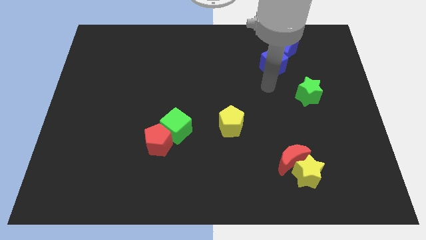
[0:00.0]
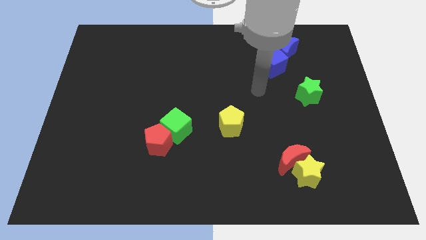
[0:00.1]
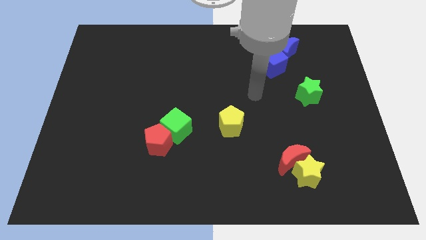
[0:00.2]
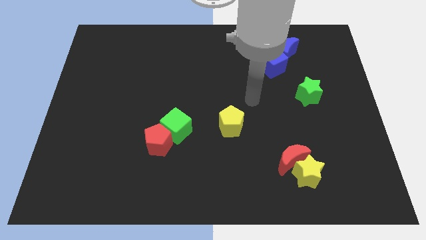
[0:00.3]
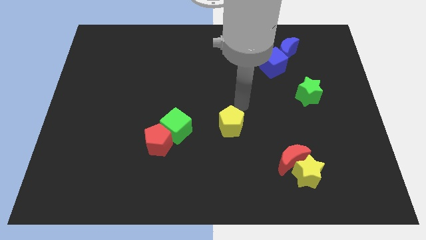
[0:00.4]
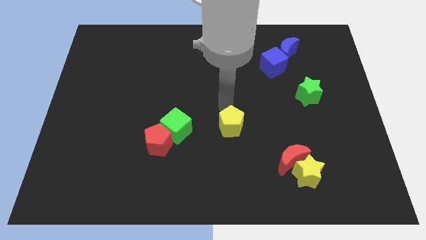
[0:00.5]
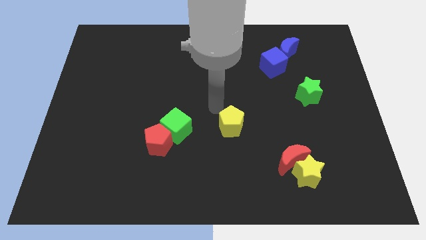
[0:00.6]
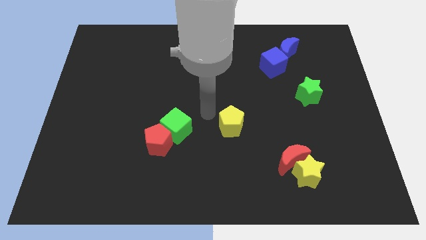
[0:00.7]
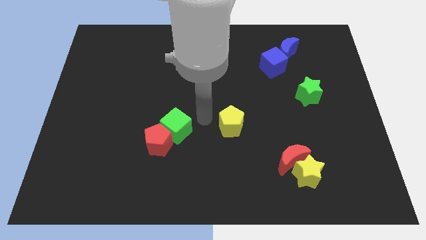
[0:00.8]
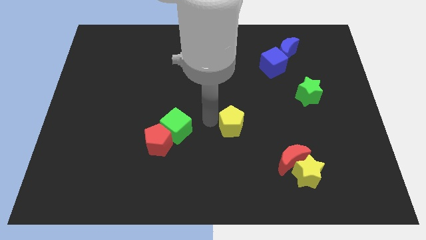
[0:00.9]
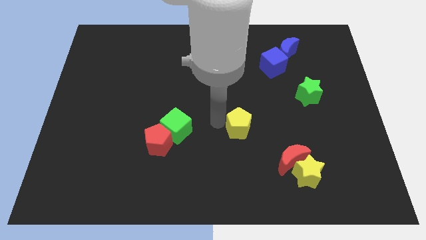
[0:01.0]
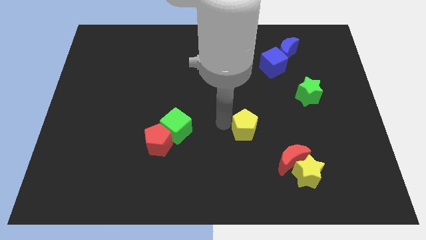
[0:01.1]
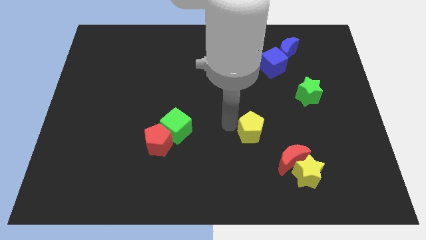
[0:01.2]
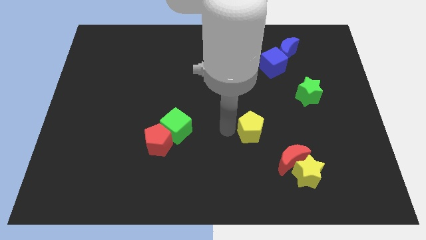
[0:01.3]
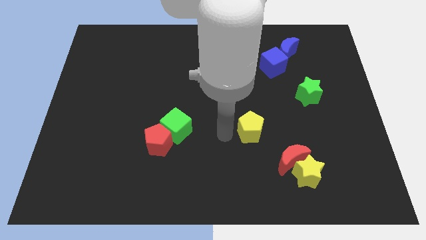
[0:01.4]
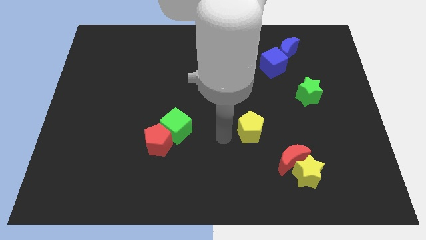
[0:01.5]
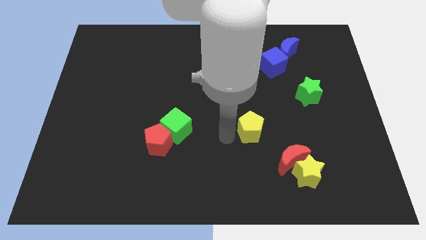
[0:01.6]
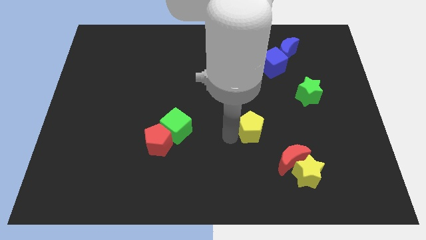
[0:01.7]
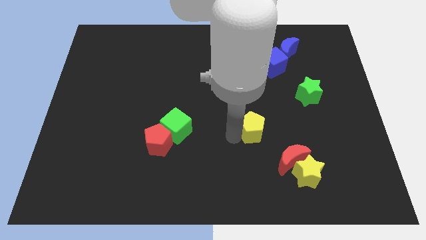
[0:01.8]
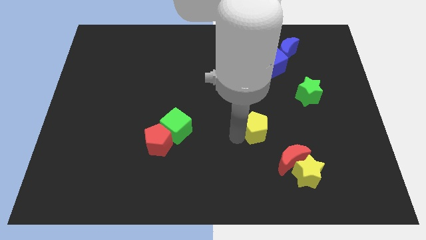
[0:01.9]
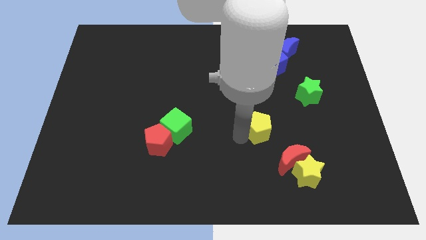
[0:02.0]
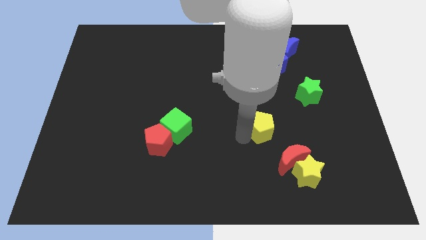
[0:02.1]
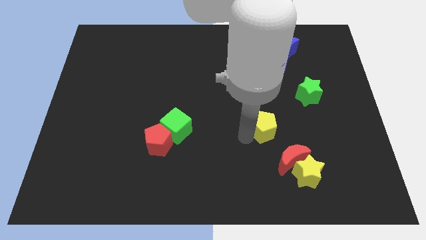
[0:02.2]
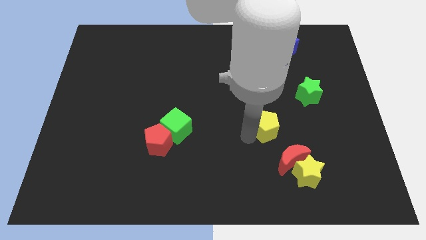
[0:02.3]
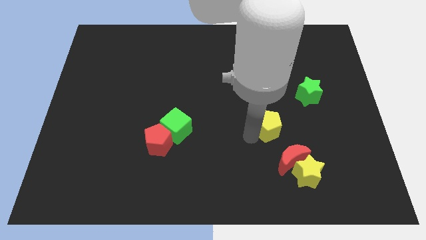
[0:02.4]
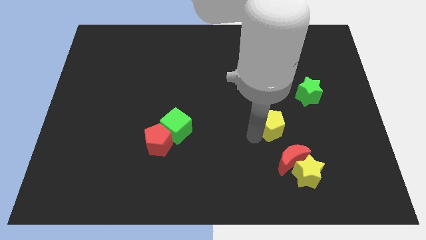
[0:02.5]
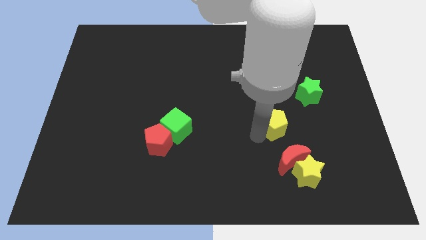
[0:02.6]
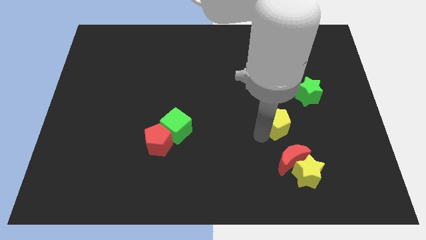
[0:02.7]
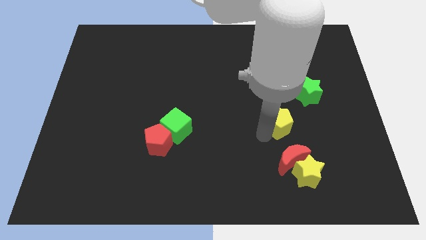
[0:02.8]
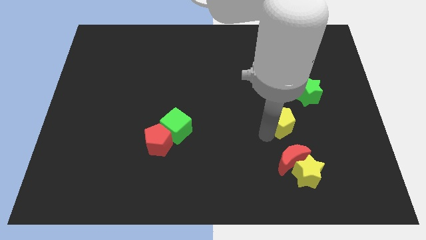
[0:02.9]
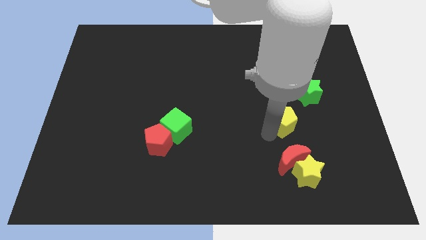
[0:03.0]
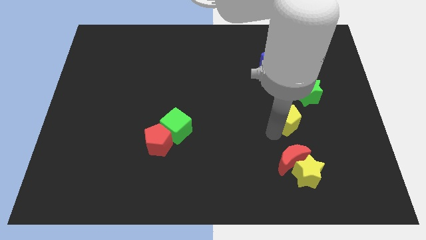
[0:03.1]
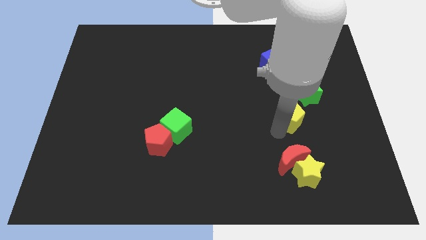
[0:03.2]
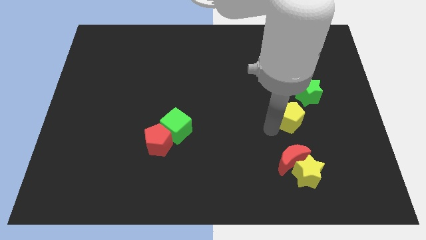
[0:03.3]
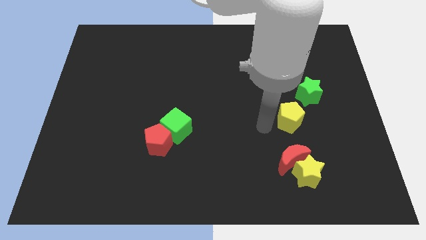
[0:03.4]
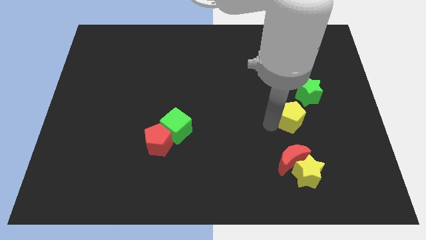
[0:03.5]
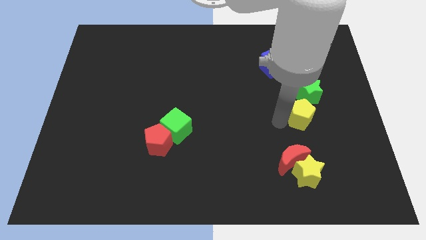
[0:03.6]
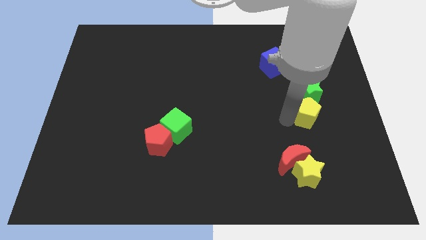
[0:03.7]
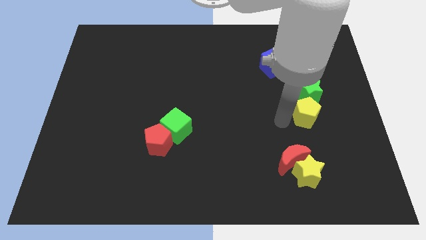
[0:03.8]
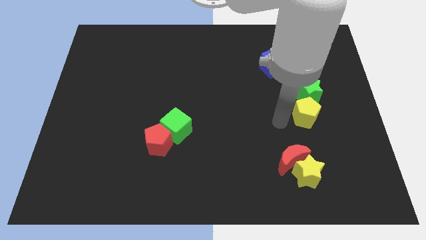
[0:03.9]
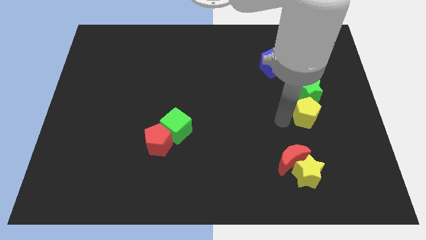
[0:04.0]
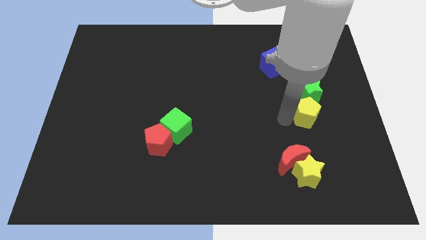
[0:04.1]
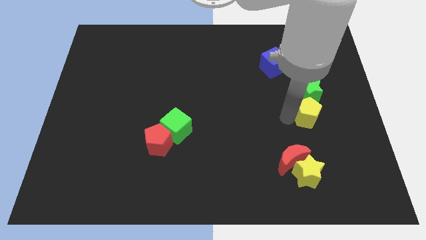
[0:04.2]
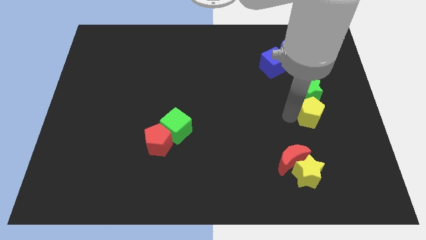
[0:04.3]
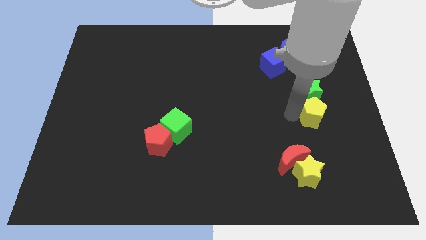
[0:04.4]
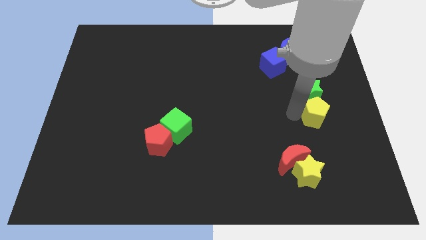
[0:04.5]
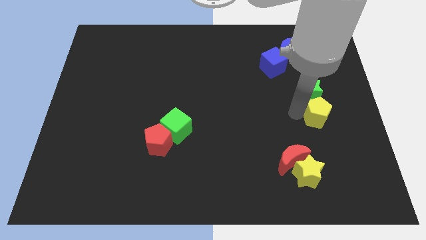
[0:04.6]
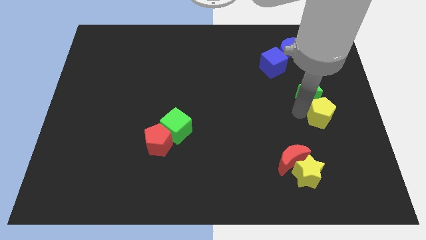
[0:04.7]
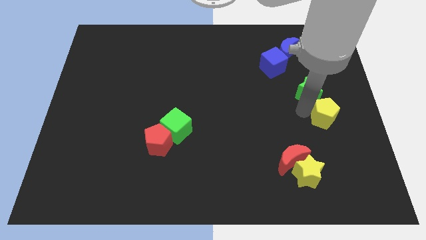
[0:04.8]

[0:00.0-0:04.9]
push the yellow pentagon to the right side of the board

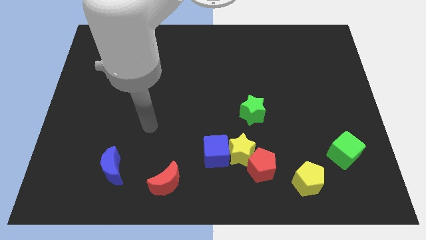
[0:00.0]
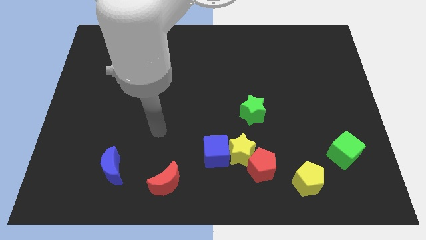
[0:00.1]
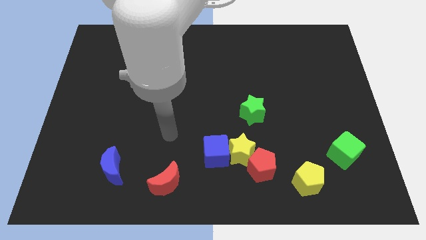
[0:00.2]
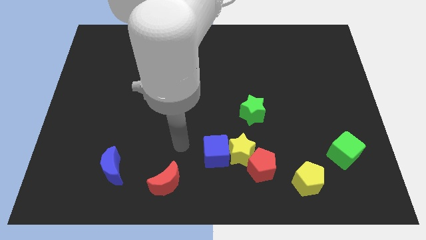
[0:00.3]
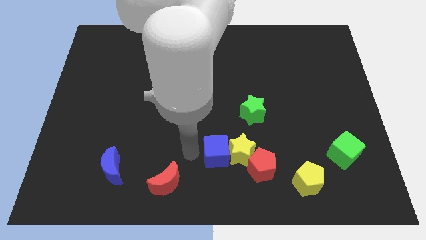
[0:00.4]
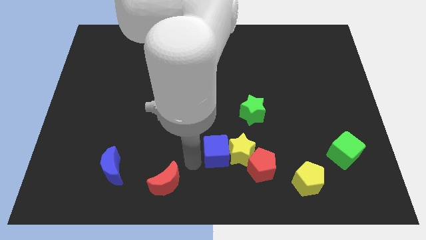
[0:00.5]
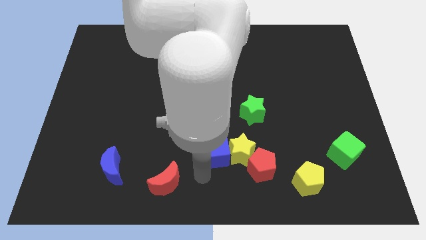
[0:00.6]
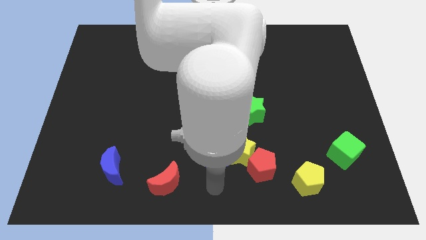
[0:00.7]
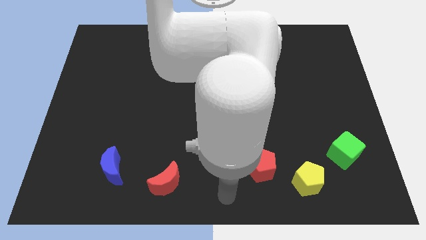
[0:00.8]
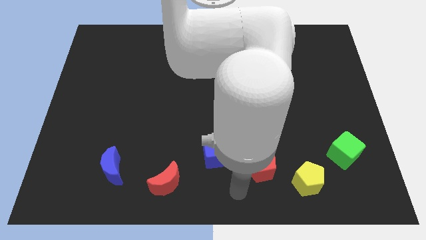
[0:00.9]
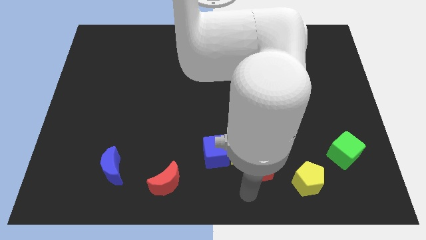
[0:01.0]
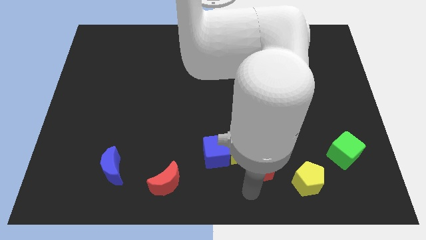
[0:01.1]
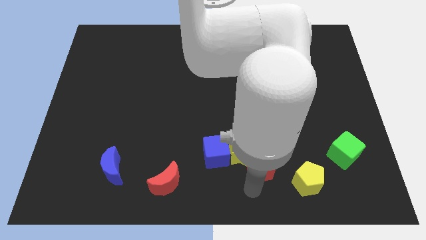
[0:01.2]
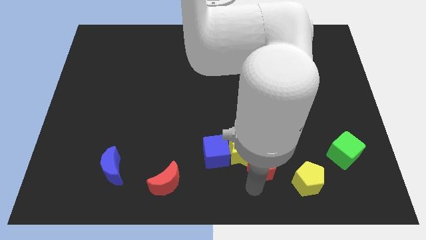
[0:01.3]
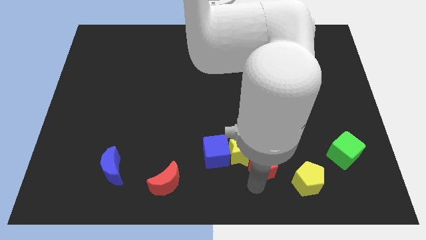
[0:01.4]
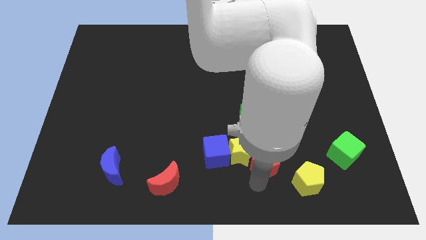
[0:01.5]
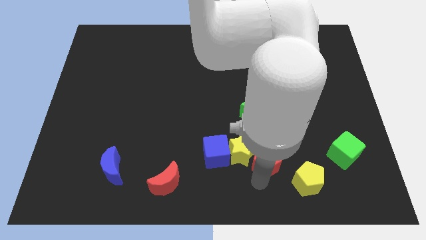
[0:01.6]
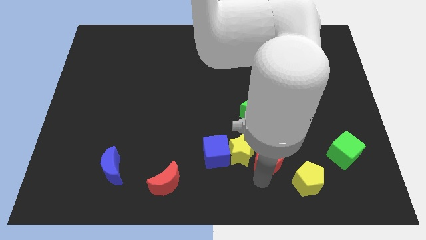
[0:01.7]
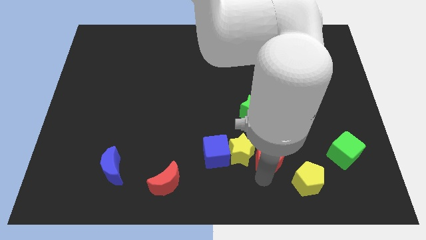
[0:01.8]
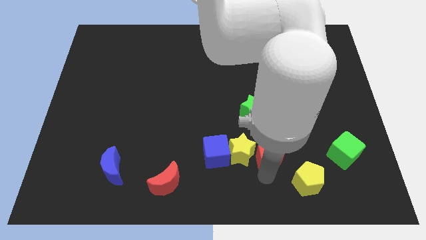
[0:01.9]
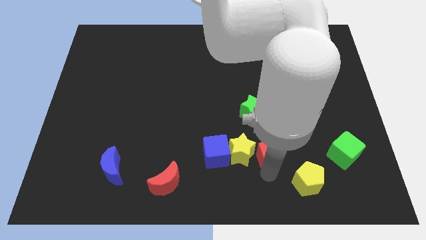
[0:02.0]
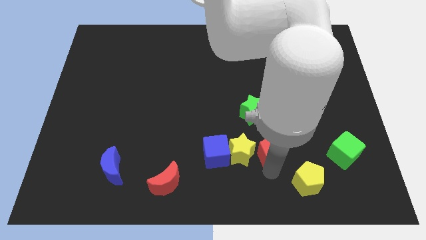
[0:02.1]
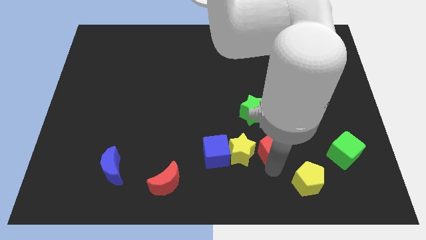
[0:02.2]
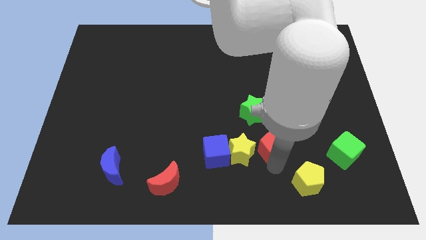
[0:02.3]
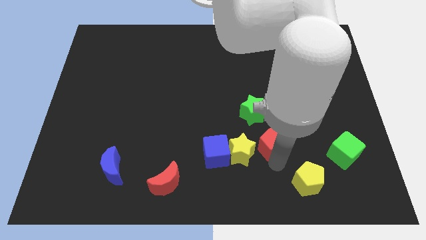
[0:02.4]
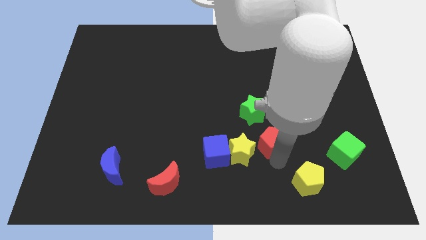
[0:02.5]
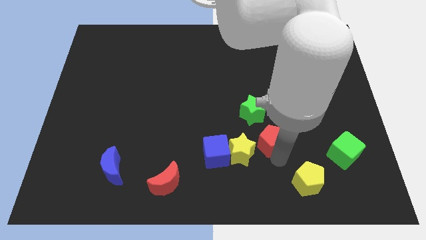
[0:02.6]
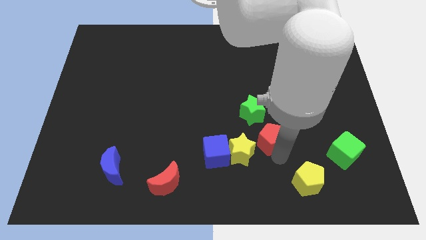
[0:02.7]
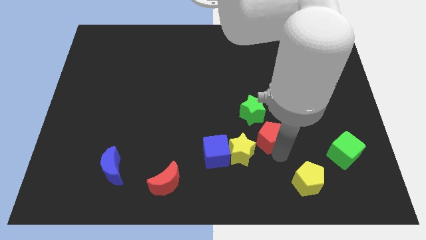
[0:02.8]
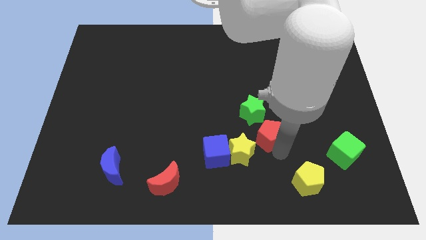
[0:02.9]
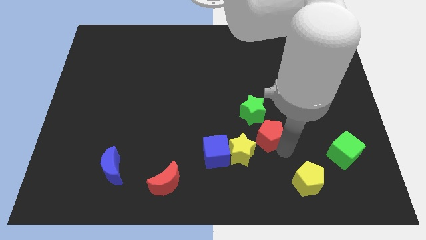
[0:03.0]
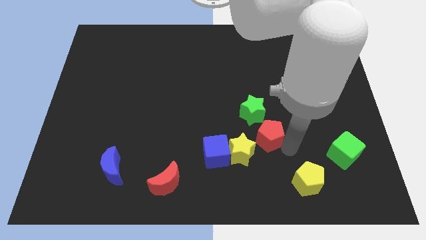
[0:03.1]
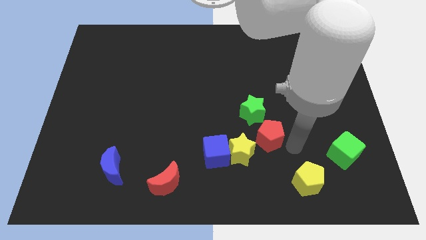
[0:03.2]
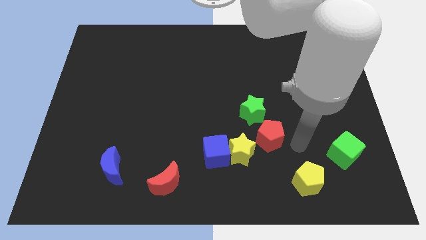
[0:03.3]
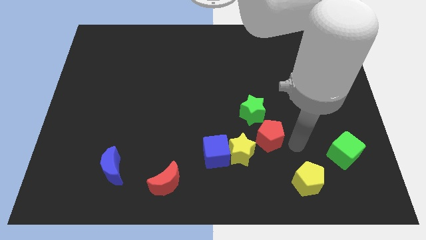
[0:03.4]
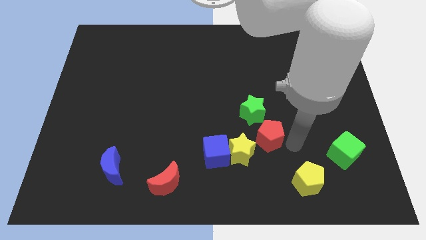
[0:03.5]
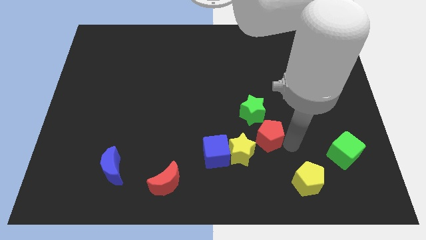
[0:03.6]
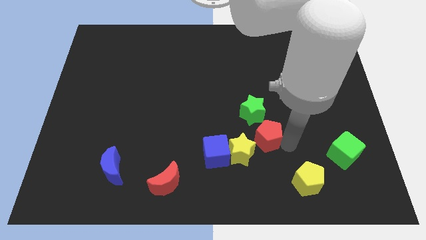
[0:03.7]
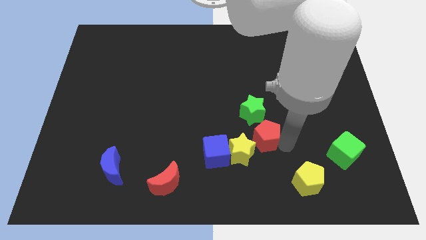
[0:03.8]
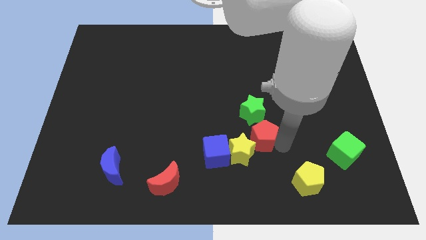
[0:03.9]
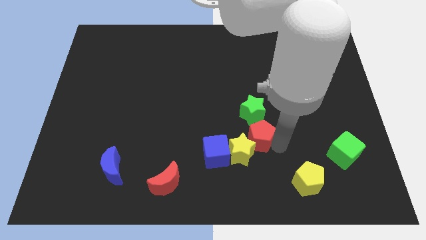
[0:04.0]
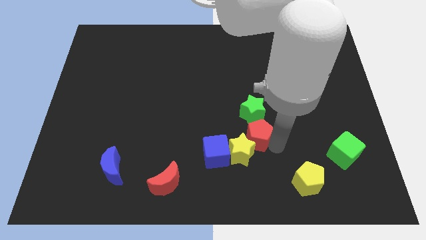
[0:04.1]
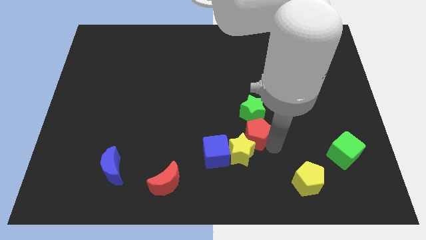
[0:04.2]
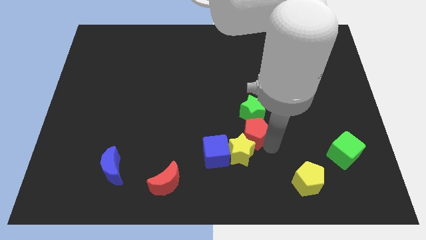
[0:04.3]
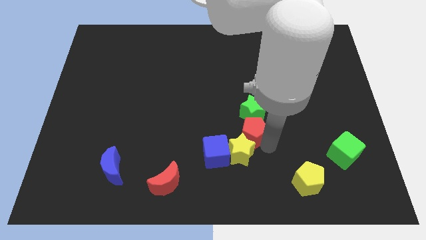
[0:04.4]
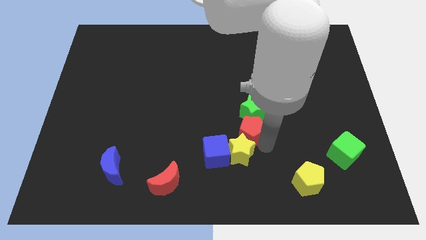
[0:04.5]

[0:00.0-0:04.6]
slide the red pentagon to the center of the board
